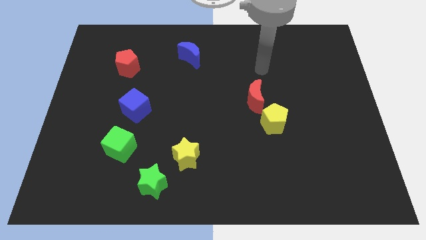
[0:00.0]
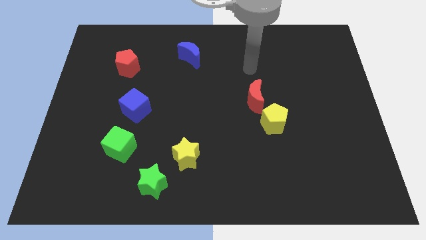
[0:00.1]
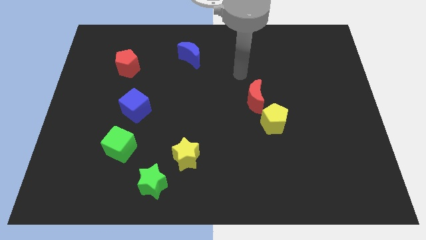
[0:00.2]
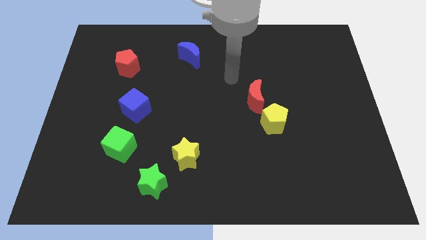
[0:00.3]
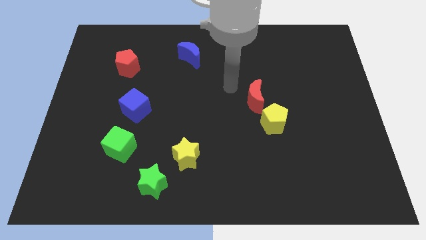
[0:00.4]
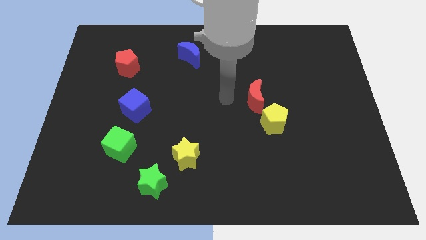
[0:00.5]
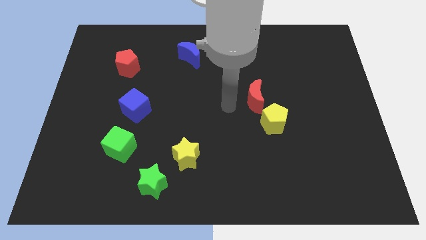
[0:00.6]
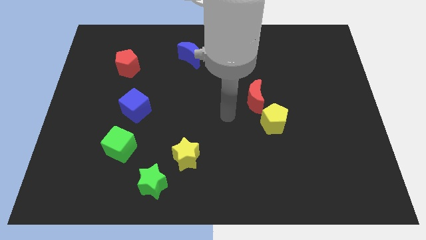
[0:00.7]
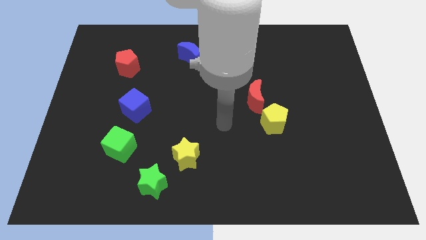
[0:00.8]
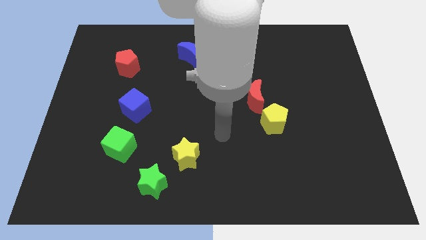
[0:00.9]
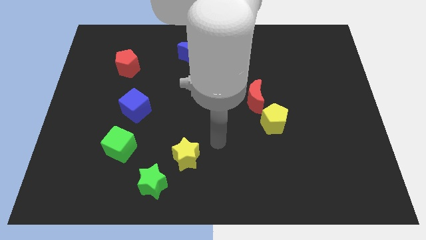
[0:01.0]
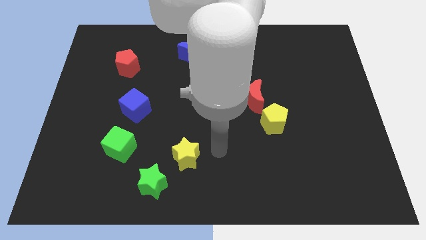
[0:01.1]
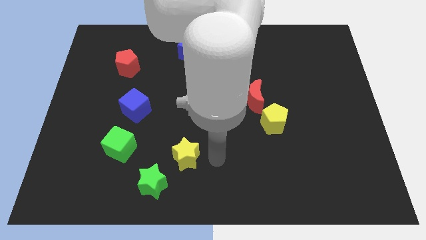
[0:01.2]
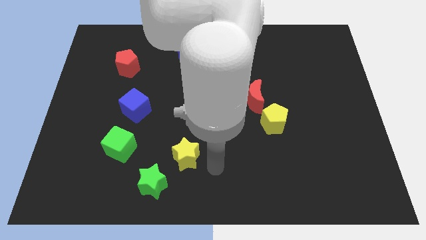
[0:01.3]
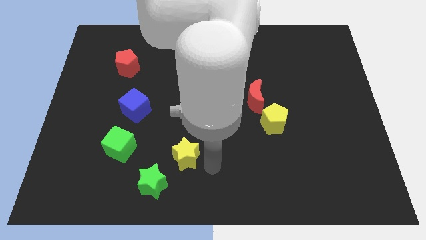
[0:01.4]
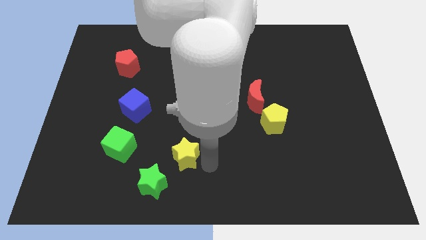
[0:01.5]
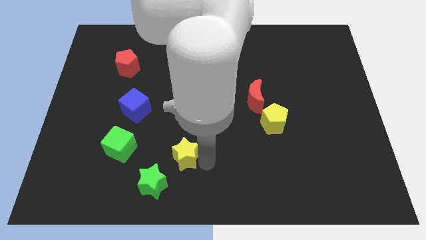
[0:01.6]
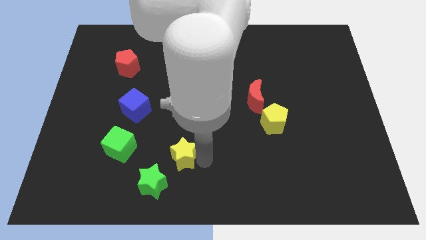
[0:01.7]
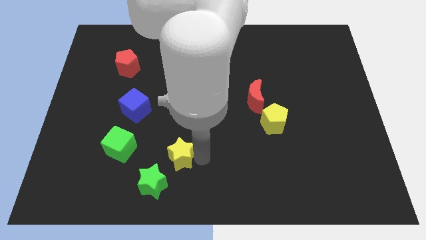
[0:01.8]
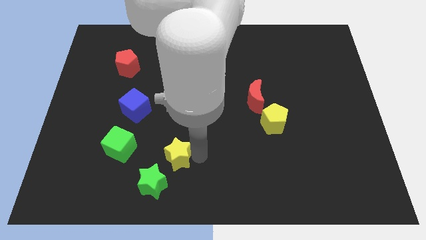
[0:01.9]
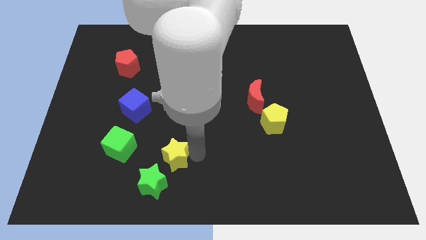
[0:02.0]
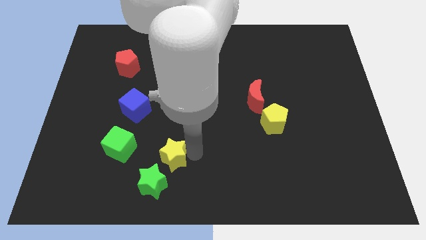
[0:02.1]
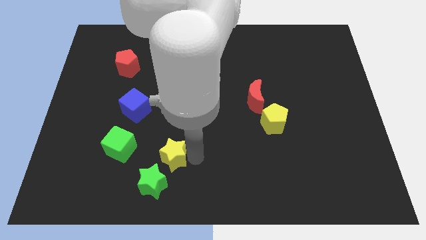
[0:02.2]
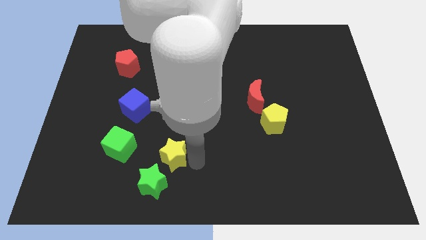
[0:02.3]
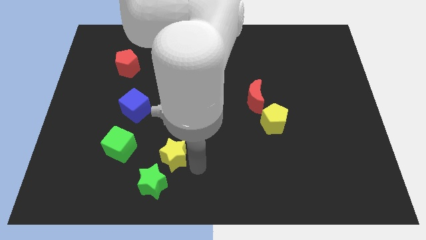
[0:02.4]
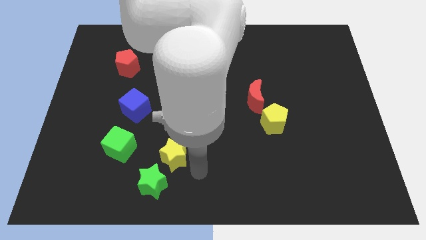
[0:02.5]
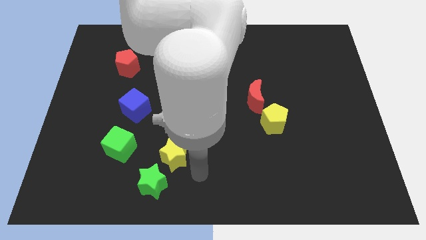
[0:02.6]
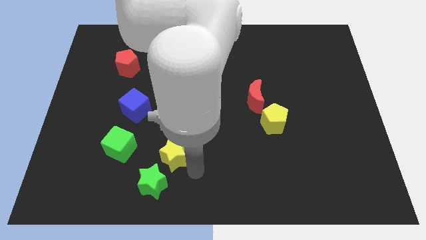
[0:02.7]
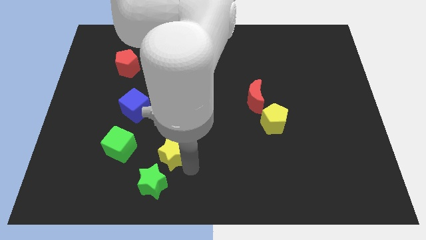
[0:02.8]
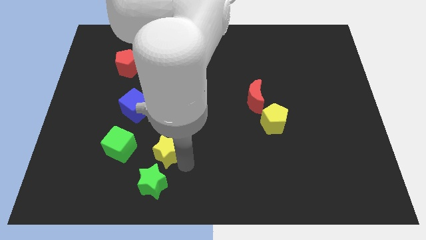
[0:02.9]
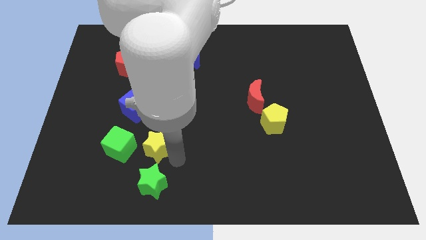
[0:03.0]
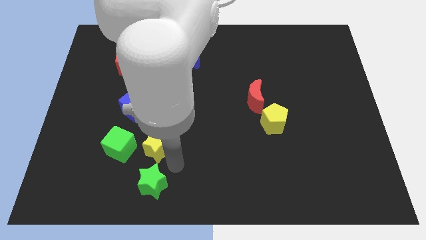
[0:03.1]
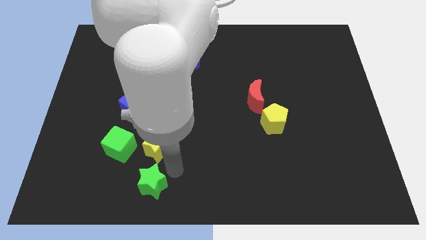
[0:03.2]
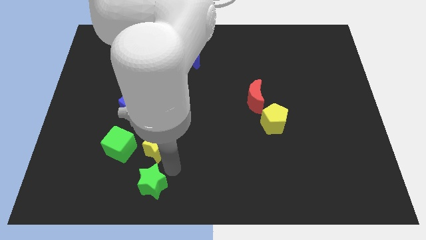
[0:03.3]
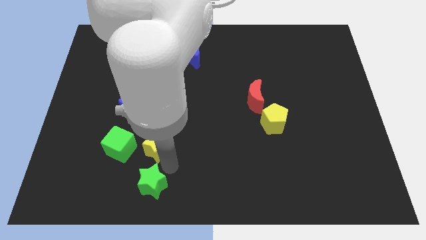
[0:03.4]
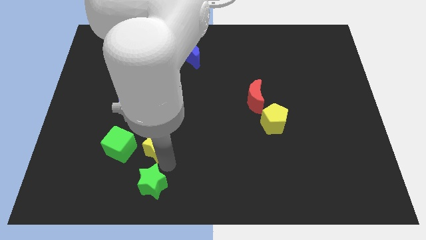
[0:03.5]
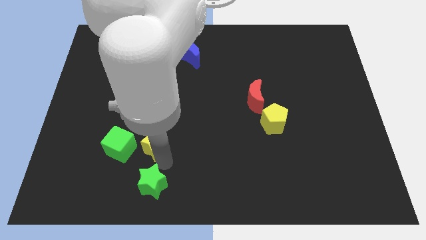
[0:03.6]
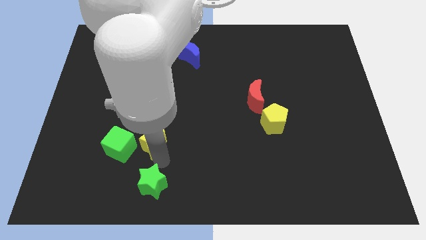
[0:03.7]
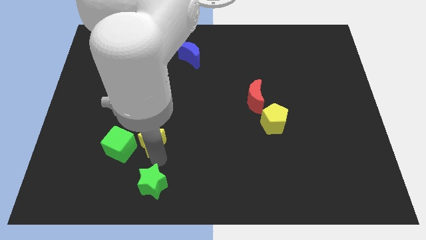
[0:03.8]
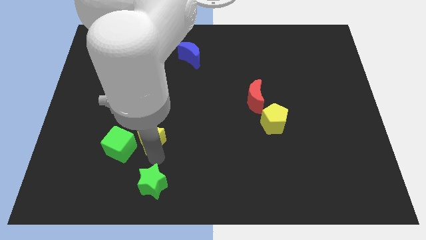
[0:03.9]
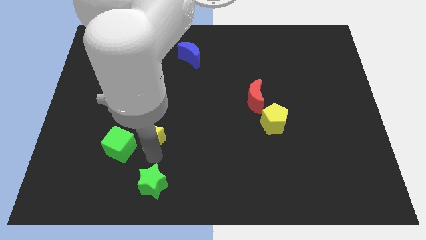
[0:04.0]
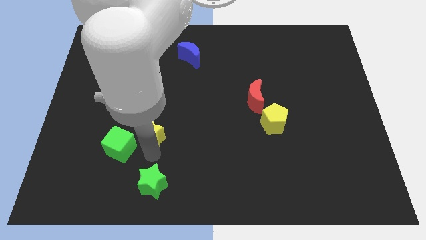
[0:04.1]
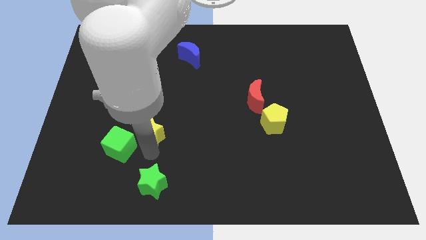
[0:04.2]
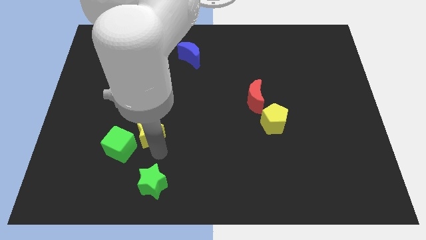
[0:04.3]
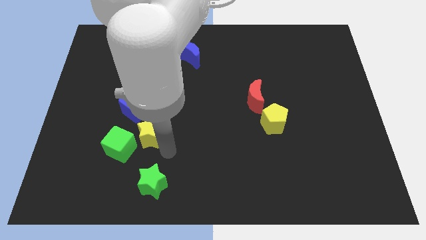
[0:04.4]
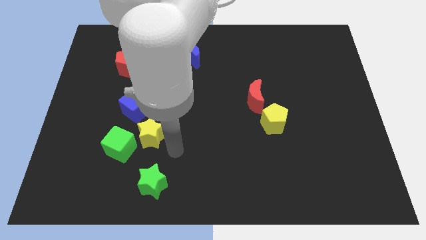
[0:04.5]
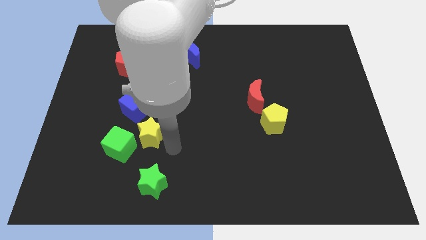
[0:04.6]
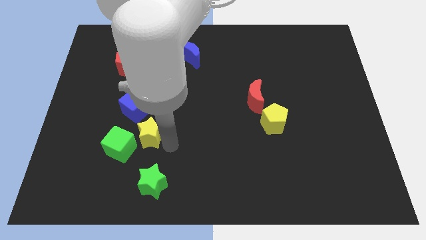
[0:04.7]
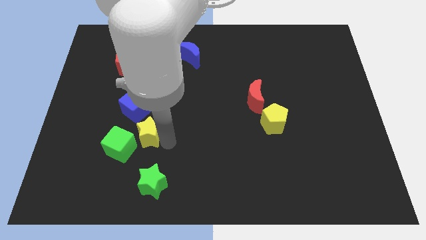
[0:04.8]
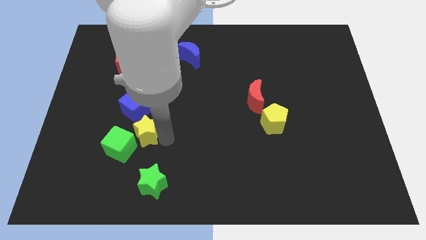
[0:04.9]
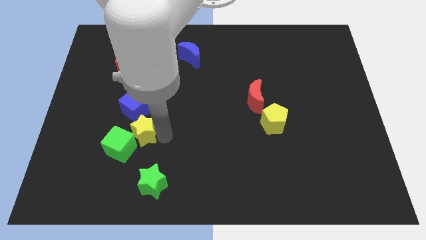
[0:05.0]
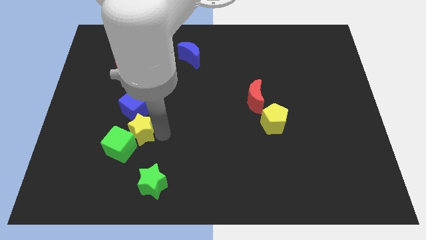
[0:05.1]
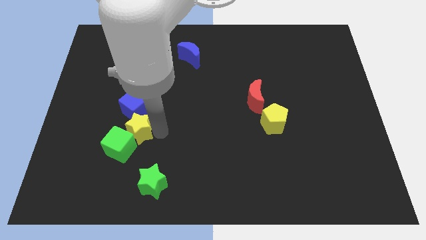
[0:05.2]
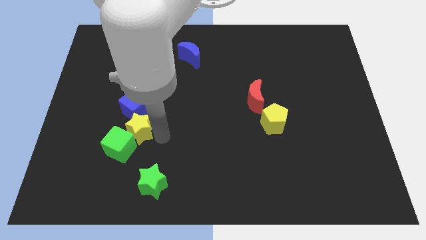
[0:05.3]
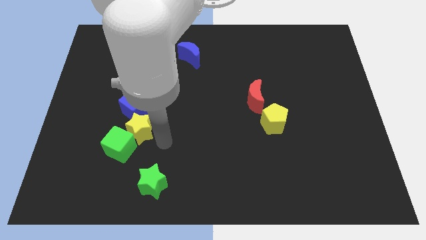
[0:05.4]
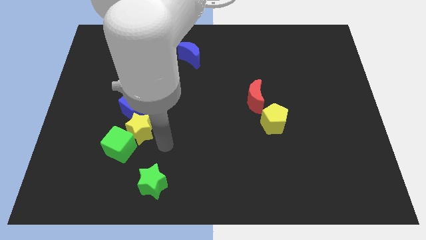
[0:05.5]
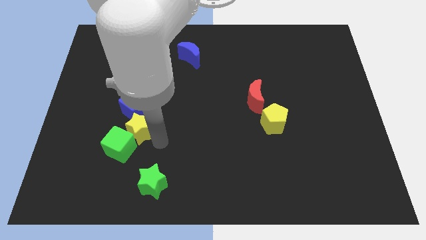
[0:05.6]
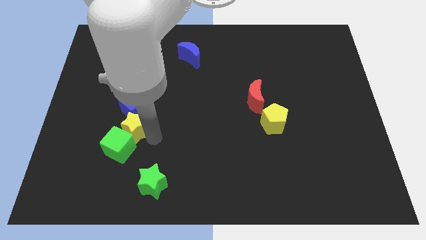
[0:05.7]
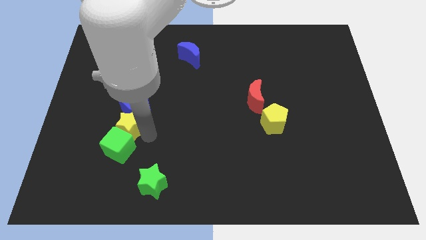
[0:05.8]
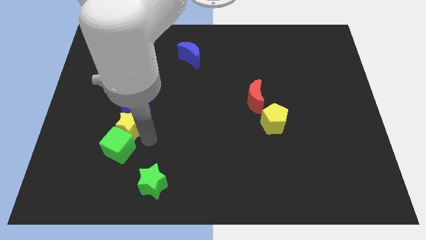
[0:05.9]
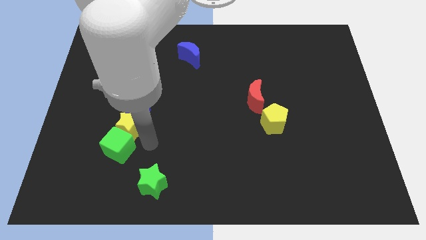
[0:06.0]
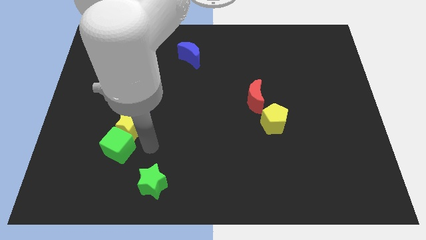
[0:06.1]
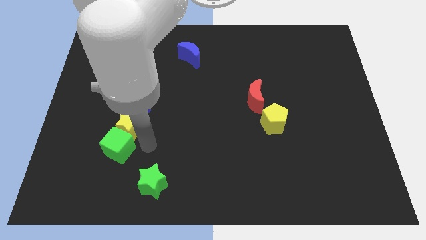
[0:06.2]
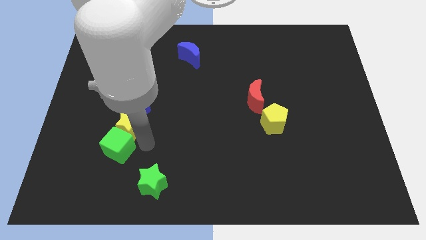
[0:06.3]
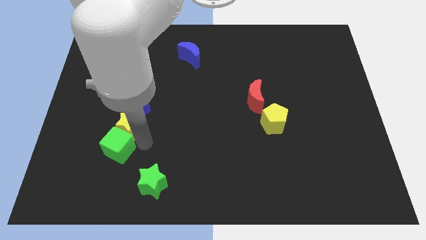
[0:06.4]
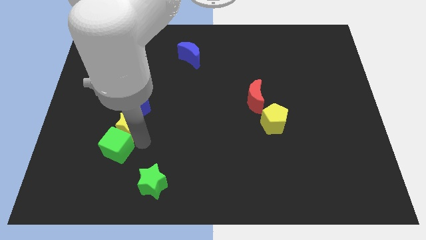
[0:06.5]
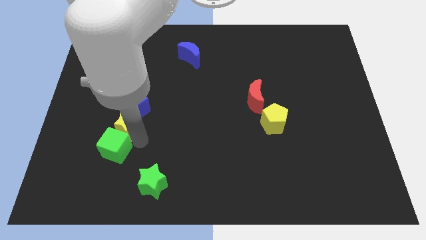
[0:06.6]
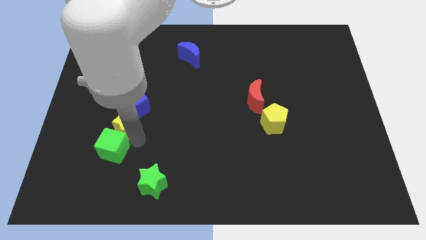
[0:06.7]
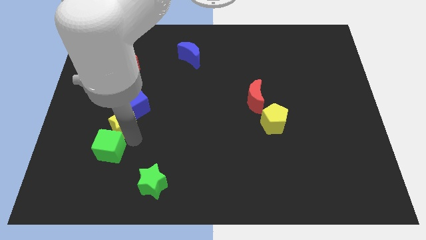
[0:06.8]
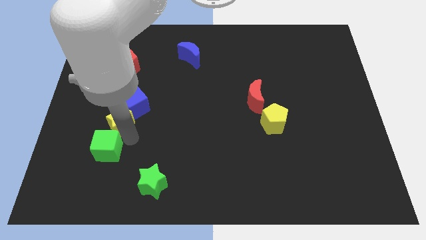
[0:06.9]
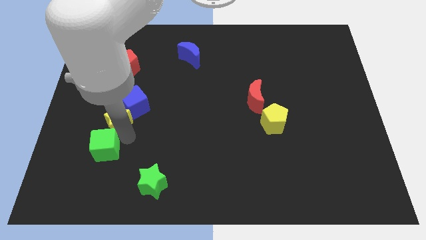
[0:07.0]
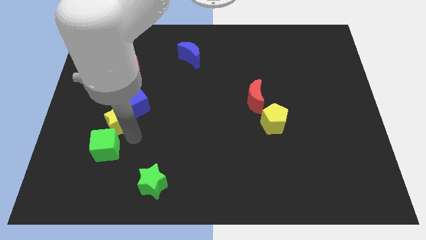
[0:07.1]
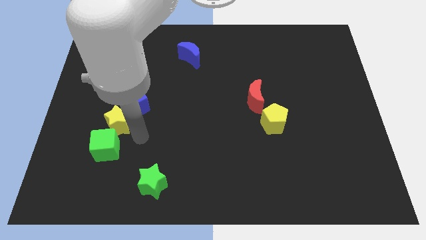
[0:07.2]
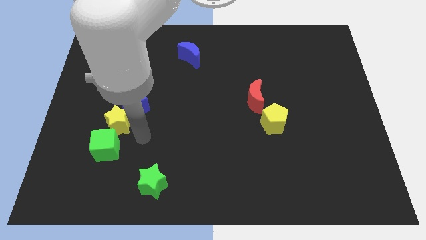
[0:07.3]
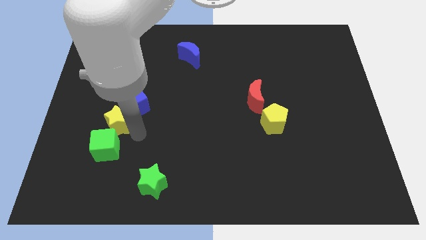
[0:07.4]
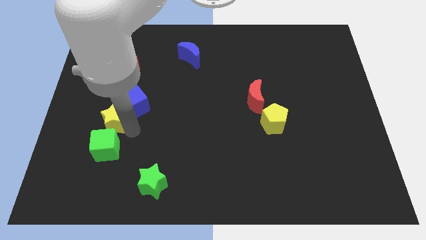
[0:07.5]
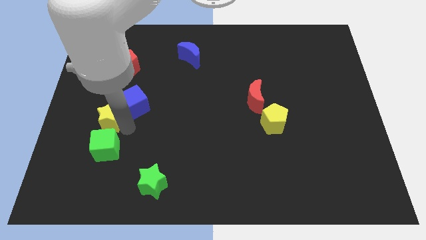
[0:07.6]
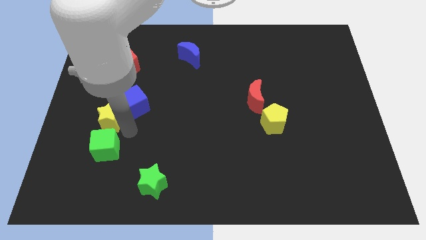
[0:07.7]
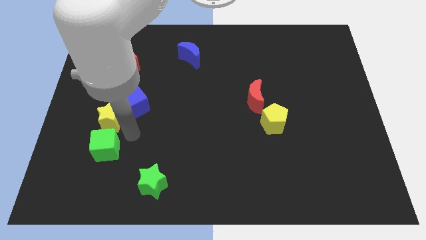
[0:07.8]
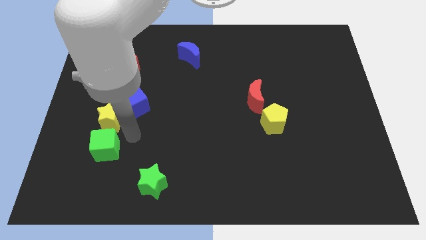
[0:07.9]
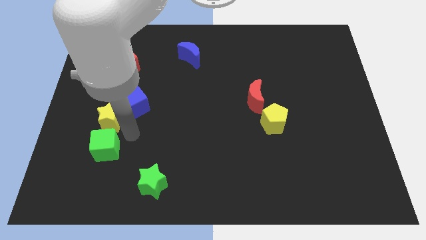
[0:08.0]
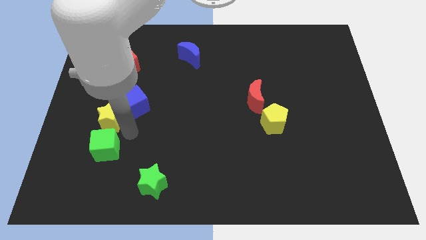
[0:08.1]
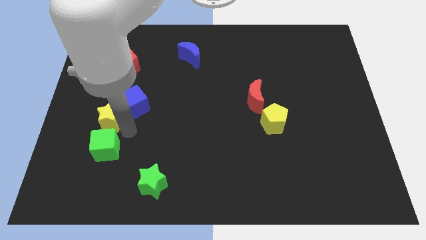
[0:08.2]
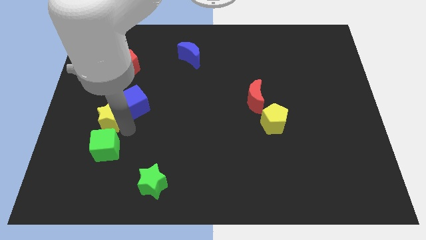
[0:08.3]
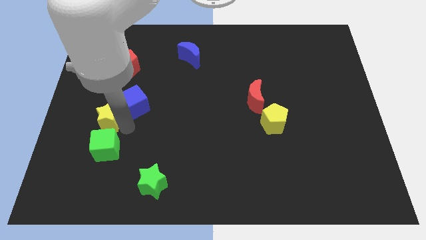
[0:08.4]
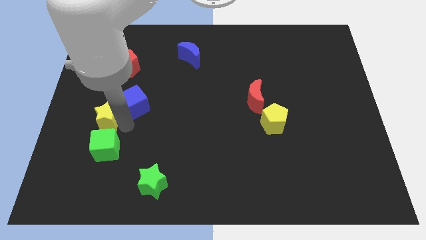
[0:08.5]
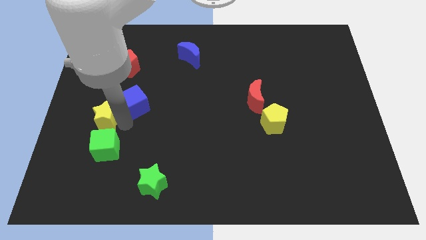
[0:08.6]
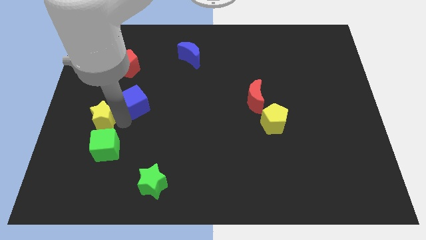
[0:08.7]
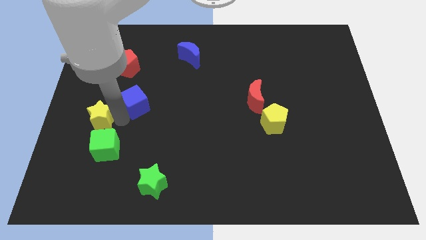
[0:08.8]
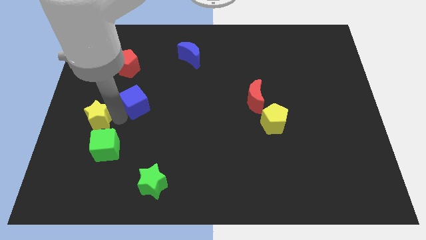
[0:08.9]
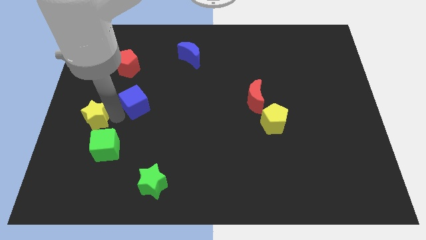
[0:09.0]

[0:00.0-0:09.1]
push the yellow star to the left side
